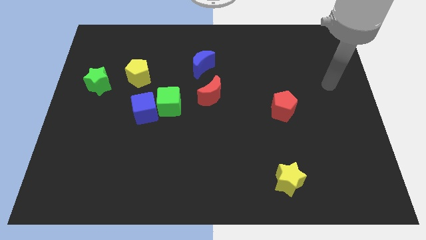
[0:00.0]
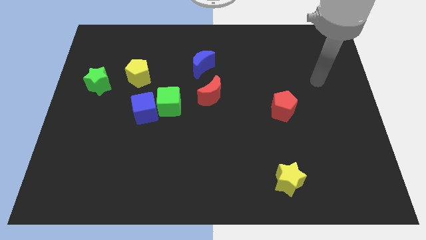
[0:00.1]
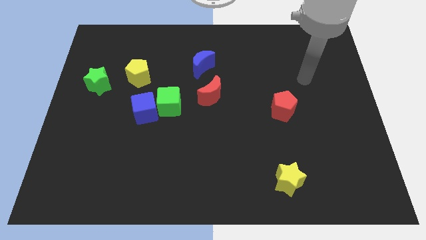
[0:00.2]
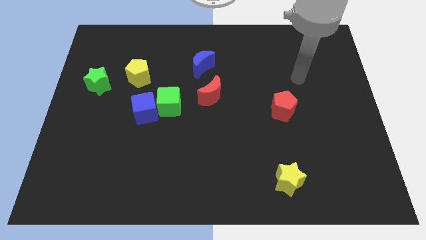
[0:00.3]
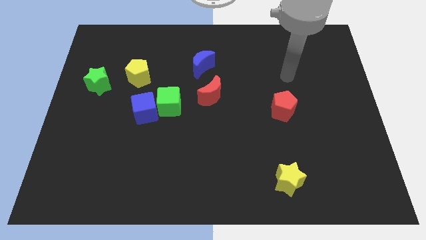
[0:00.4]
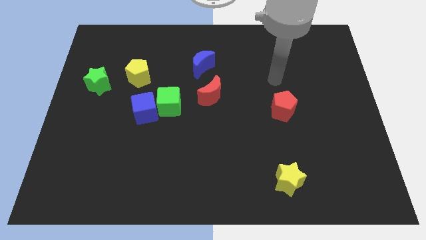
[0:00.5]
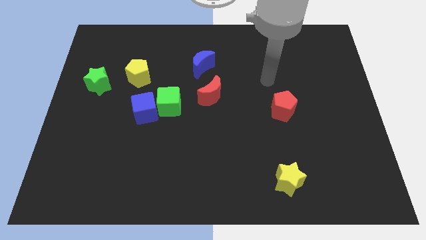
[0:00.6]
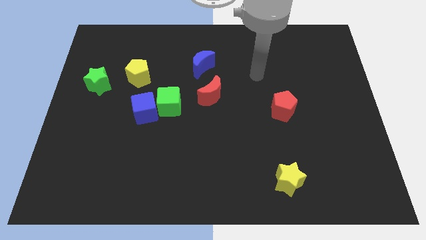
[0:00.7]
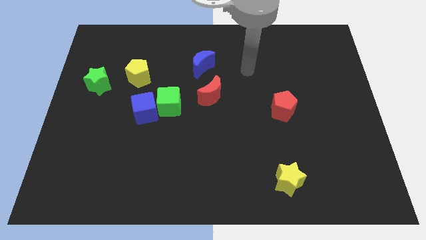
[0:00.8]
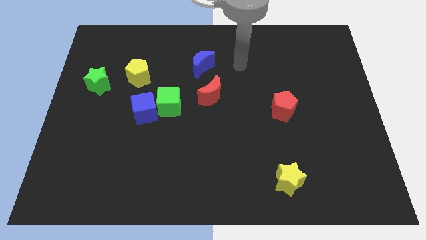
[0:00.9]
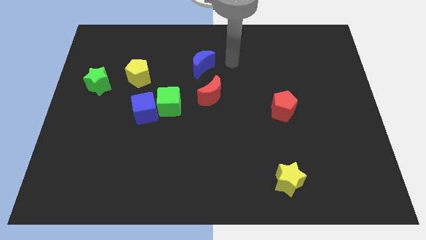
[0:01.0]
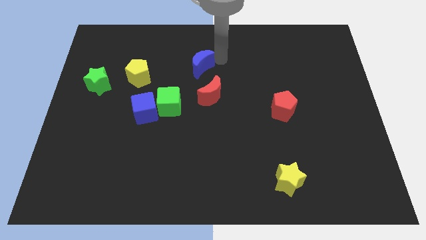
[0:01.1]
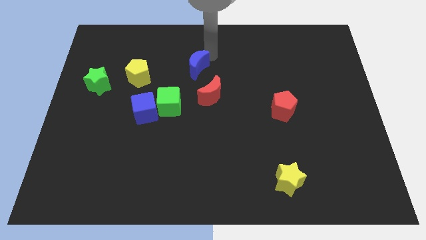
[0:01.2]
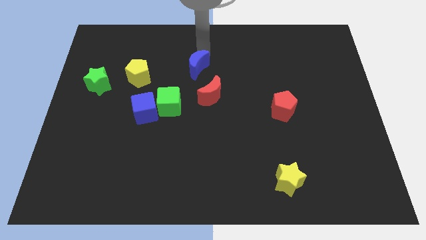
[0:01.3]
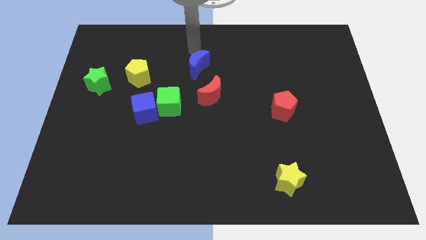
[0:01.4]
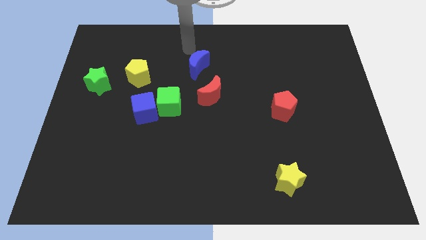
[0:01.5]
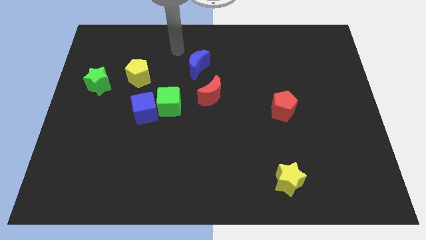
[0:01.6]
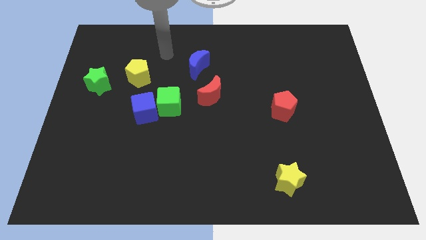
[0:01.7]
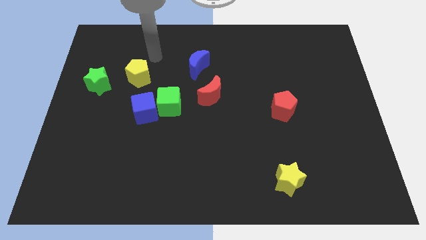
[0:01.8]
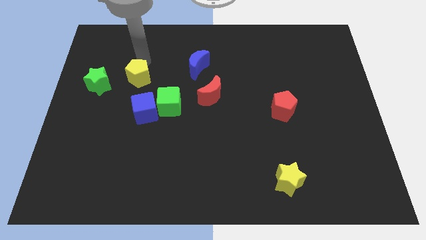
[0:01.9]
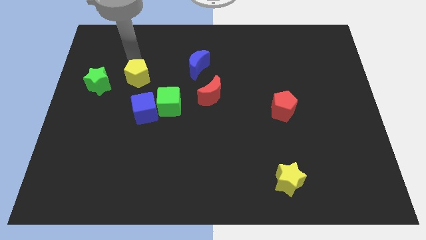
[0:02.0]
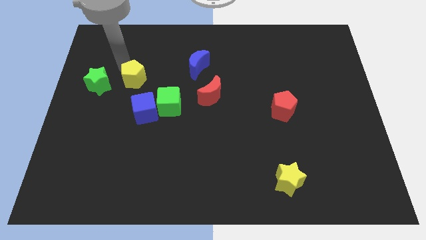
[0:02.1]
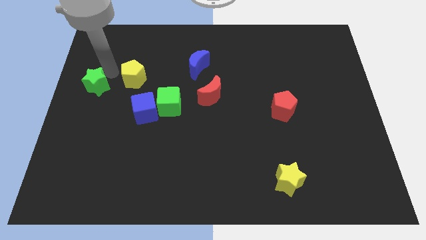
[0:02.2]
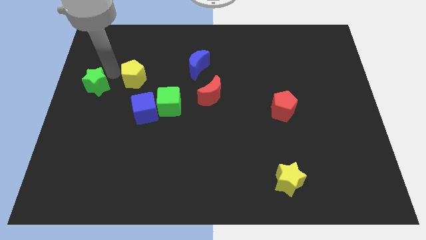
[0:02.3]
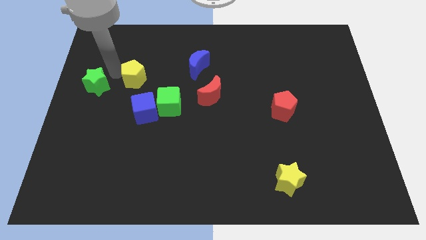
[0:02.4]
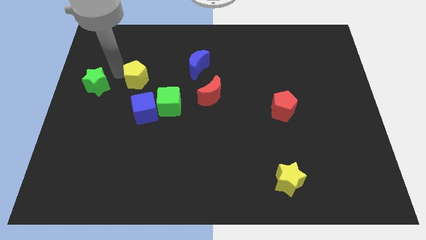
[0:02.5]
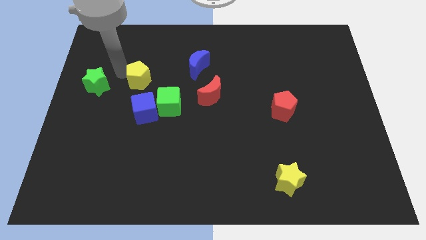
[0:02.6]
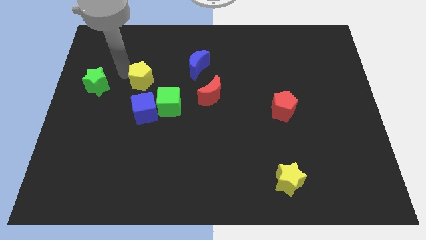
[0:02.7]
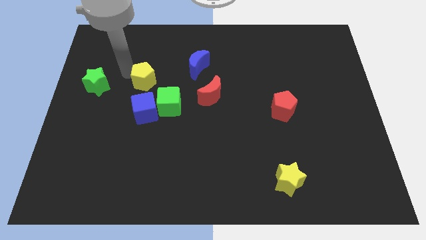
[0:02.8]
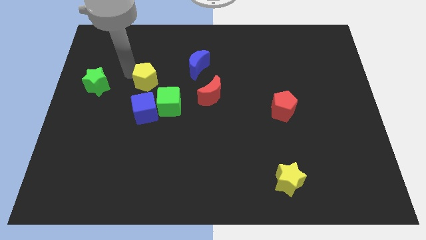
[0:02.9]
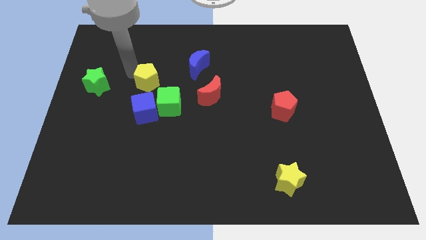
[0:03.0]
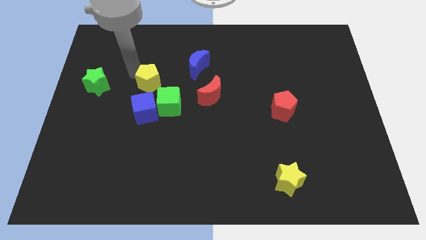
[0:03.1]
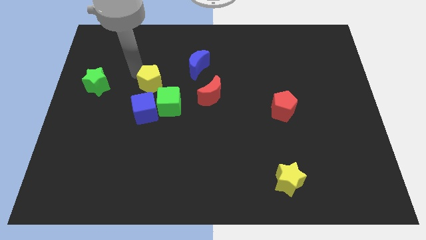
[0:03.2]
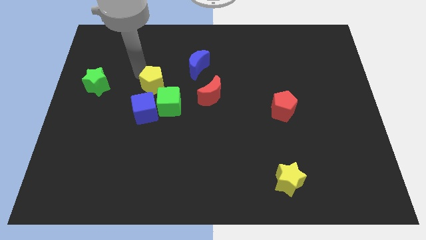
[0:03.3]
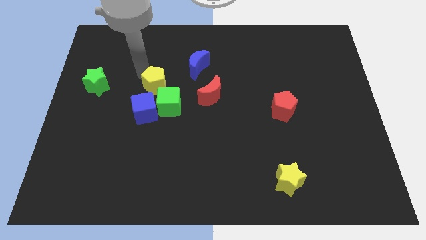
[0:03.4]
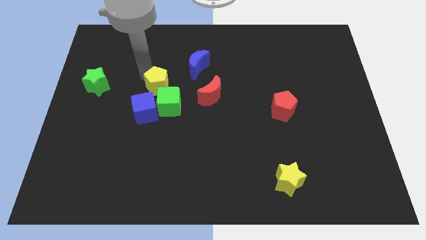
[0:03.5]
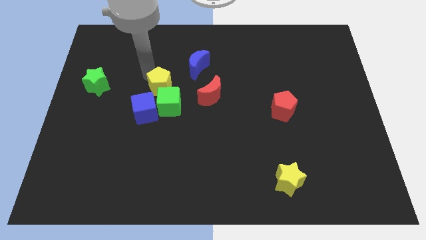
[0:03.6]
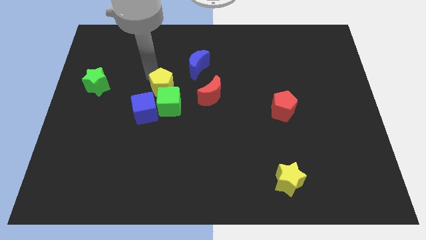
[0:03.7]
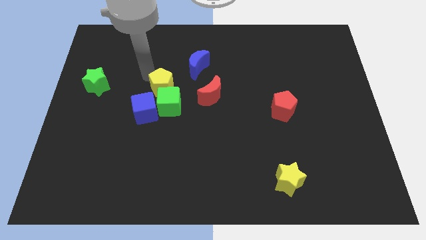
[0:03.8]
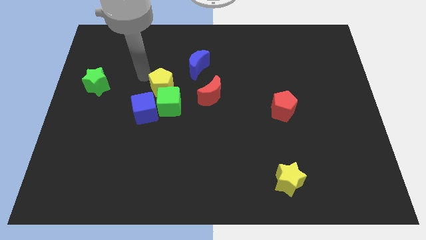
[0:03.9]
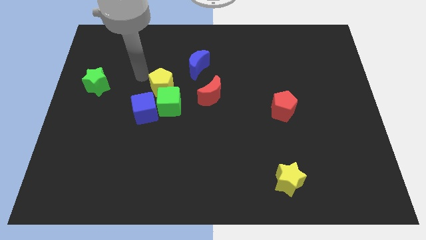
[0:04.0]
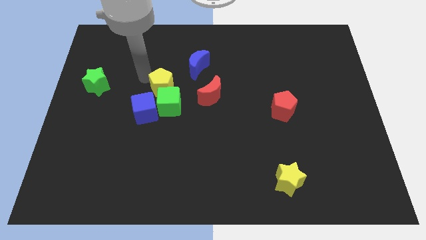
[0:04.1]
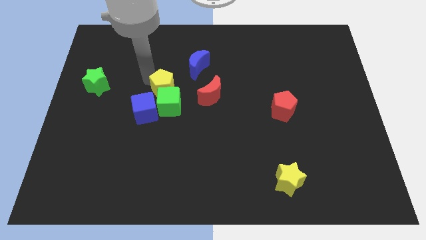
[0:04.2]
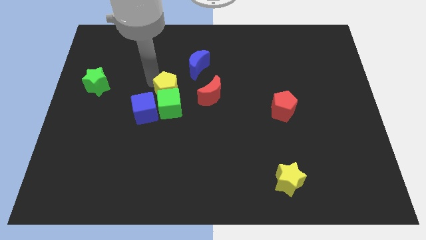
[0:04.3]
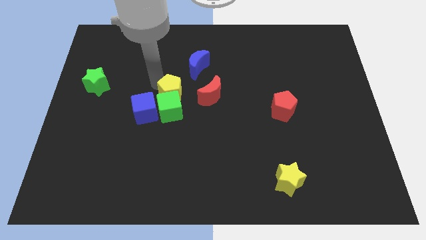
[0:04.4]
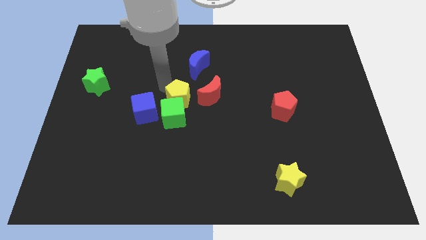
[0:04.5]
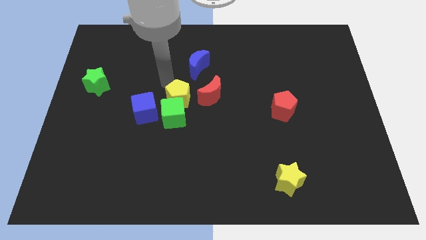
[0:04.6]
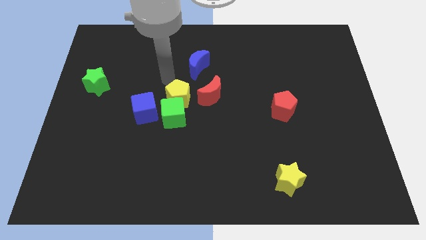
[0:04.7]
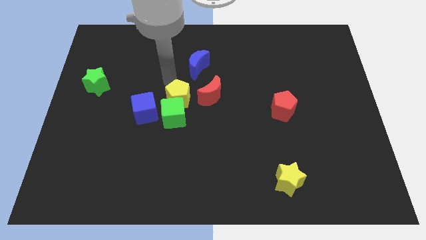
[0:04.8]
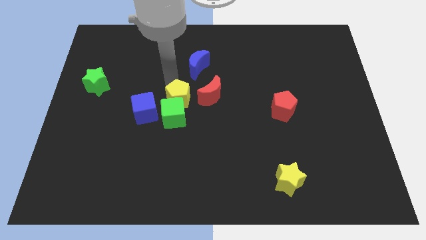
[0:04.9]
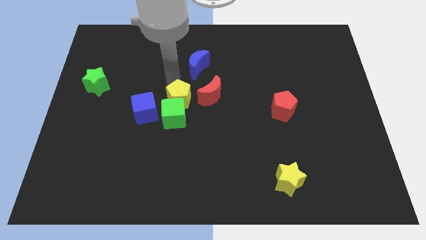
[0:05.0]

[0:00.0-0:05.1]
move the yellow pentagon diagonally down and to the left of the red moon

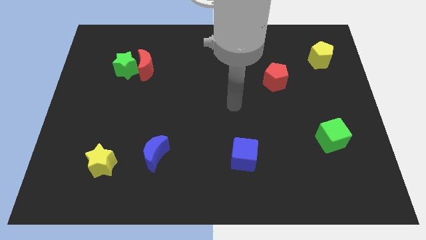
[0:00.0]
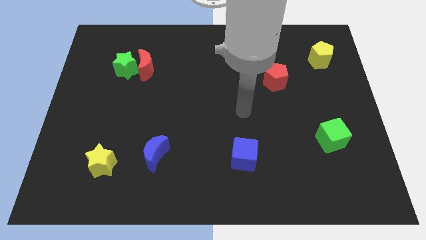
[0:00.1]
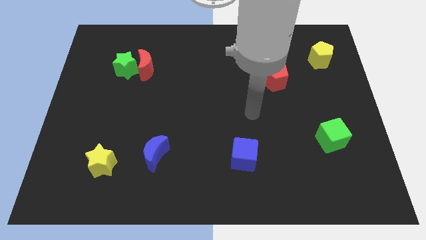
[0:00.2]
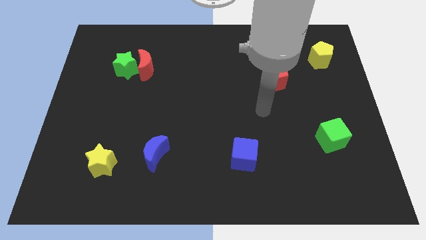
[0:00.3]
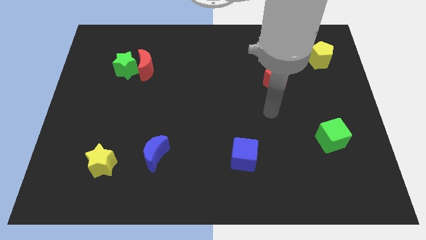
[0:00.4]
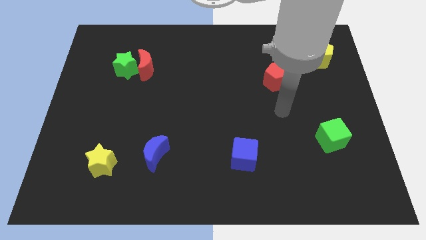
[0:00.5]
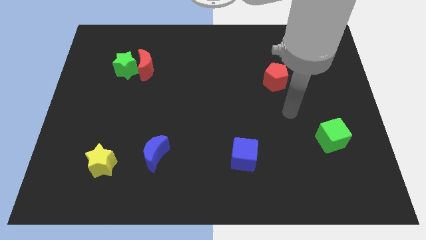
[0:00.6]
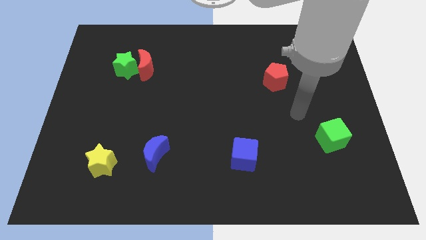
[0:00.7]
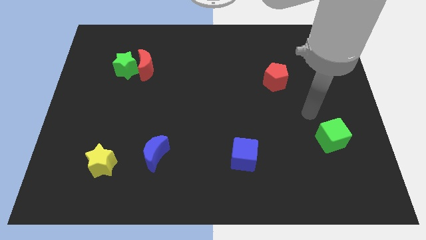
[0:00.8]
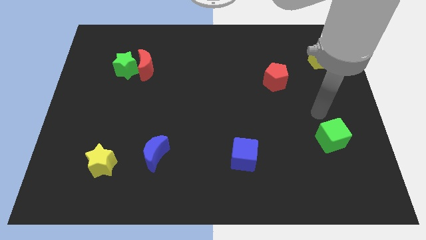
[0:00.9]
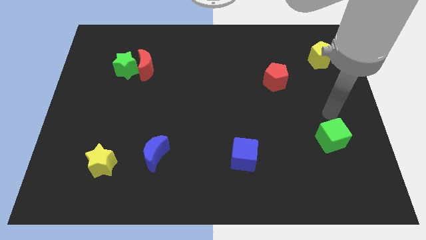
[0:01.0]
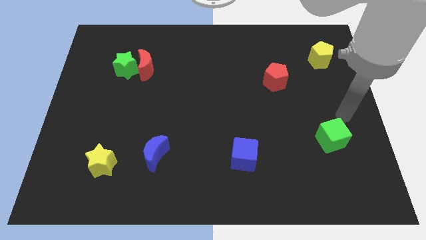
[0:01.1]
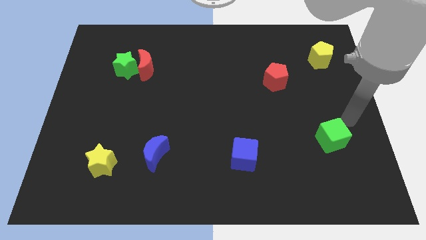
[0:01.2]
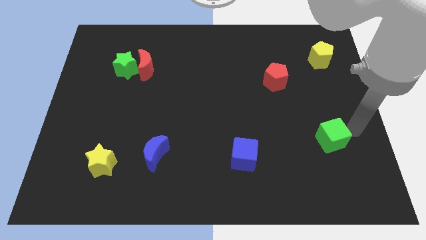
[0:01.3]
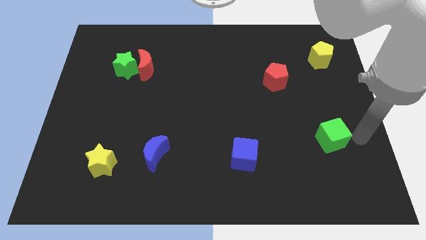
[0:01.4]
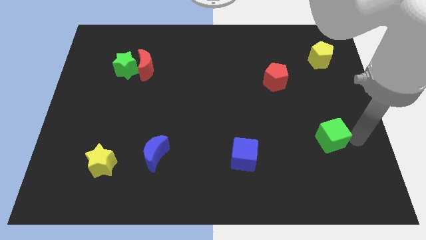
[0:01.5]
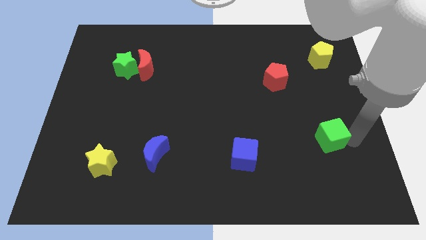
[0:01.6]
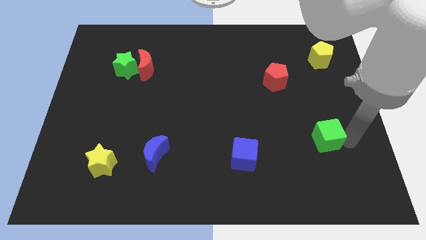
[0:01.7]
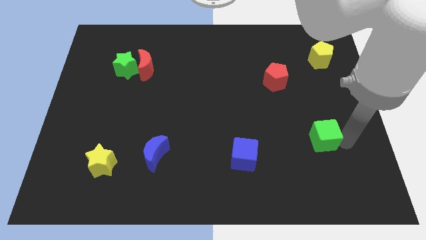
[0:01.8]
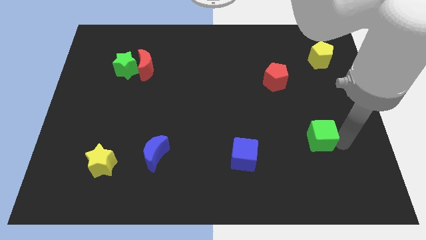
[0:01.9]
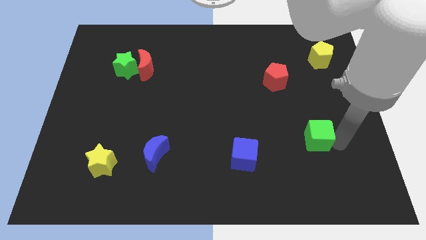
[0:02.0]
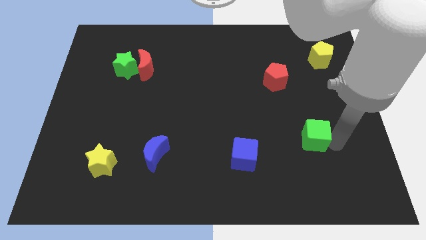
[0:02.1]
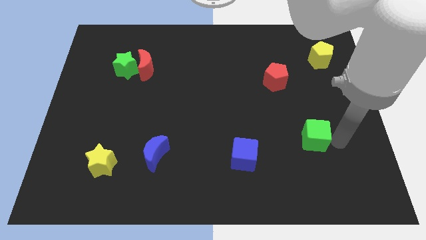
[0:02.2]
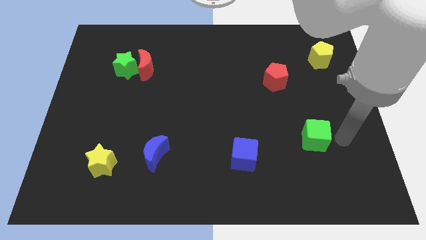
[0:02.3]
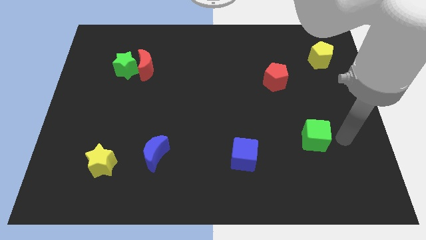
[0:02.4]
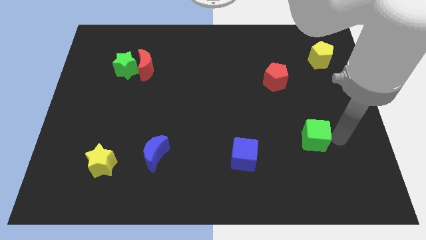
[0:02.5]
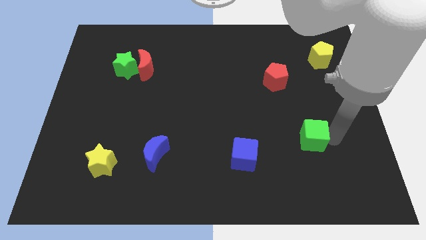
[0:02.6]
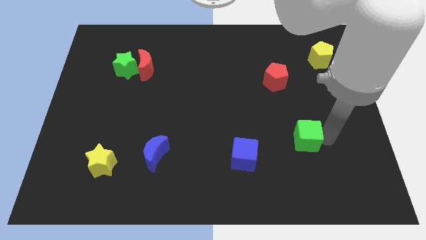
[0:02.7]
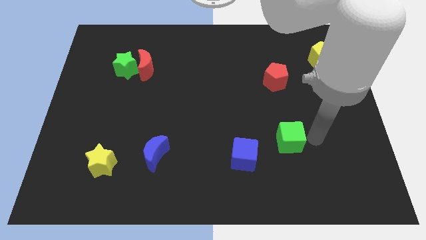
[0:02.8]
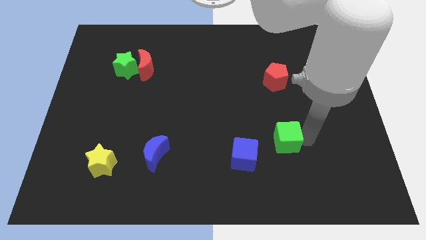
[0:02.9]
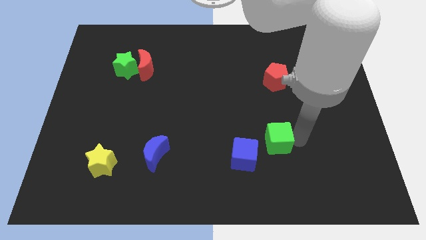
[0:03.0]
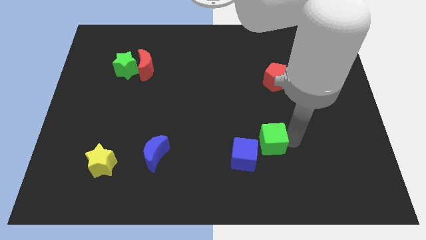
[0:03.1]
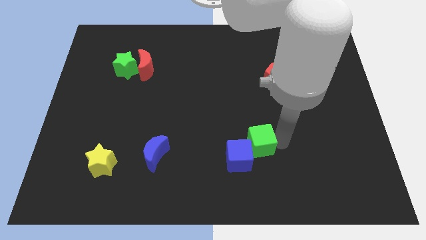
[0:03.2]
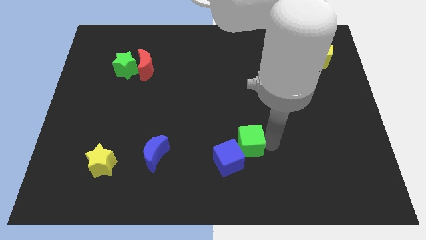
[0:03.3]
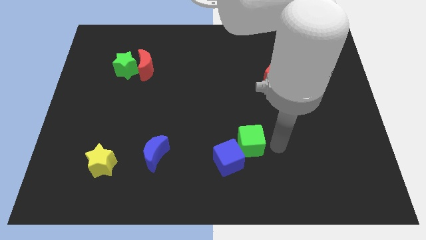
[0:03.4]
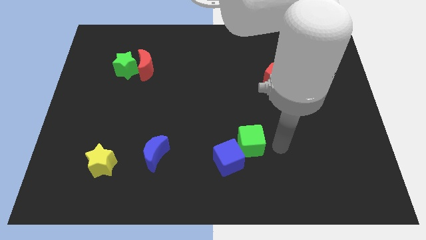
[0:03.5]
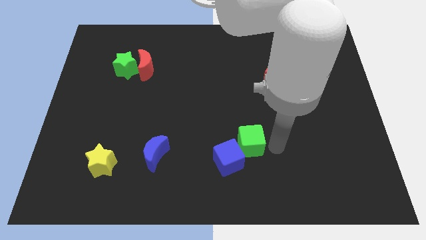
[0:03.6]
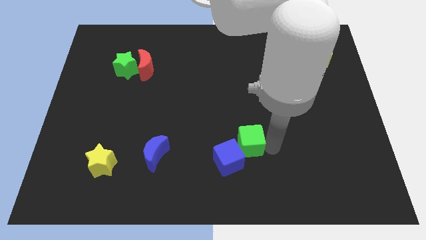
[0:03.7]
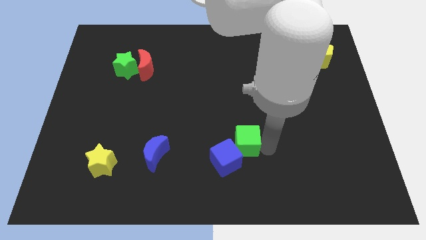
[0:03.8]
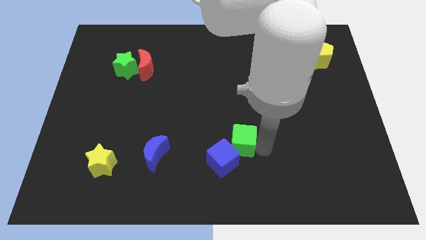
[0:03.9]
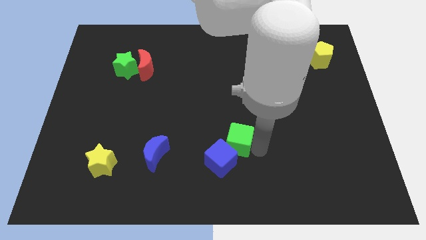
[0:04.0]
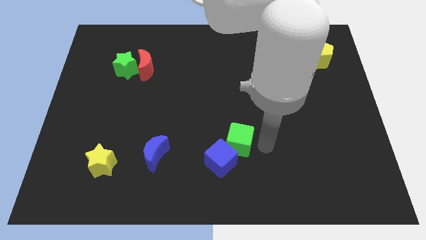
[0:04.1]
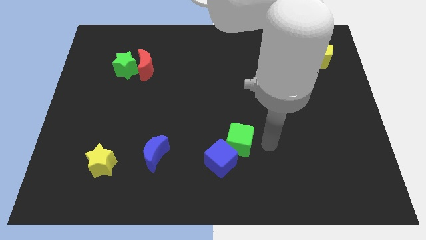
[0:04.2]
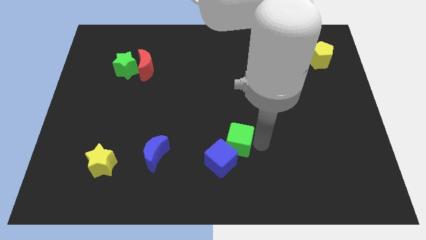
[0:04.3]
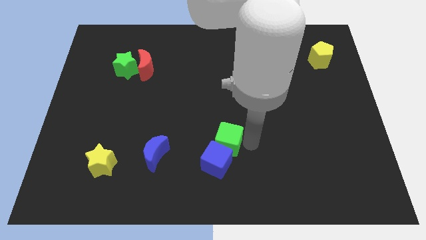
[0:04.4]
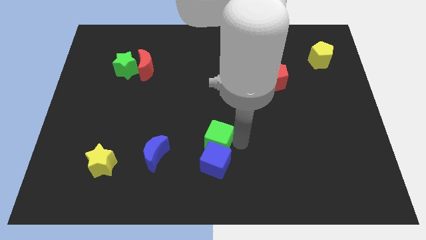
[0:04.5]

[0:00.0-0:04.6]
push the green cube to the top left side of the blue cube
